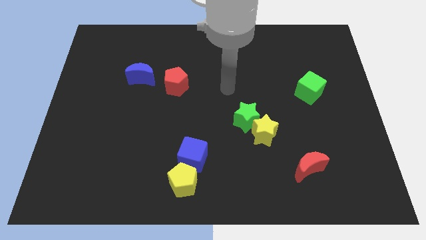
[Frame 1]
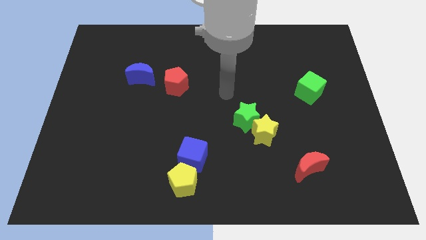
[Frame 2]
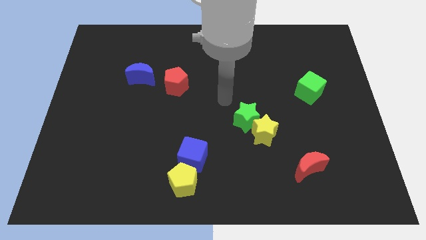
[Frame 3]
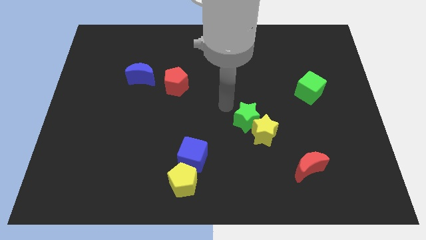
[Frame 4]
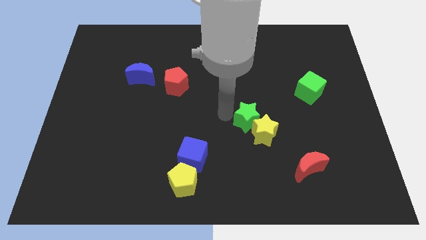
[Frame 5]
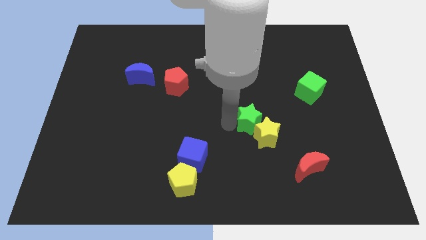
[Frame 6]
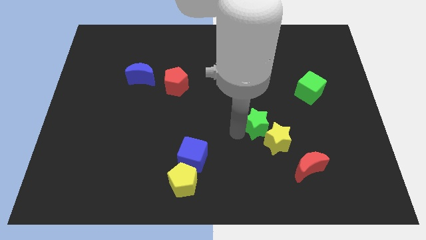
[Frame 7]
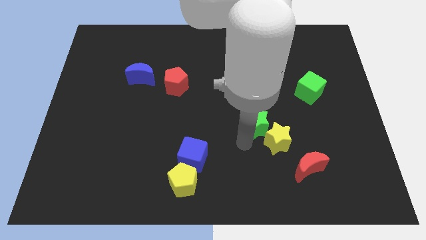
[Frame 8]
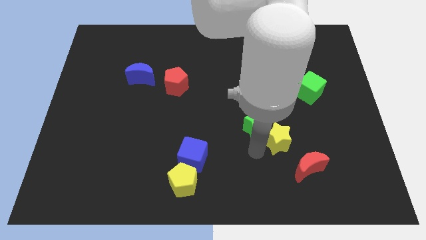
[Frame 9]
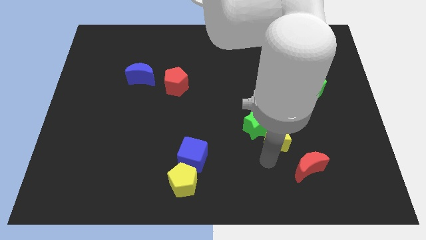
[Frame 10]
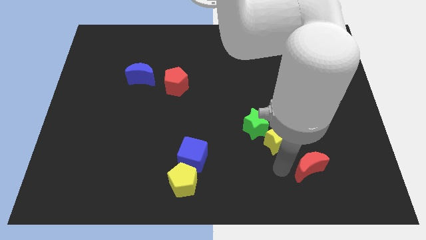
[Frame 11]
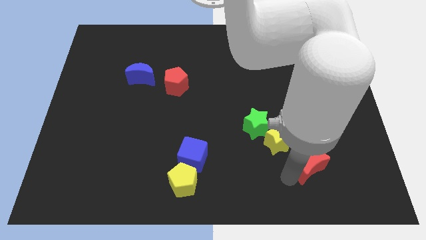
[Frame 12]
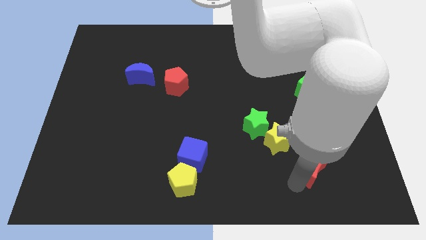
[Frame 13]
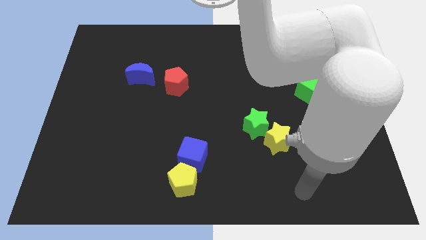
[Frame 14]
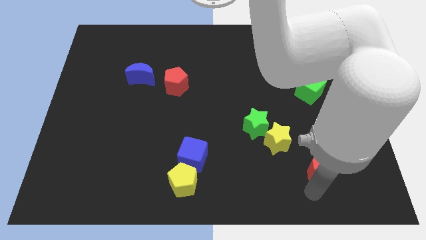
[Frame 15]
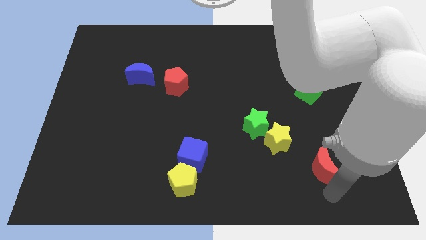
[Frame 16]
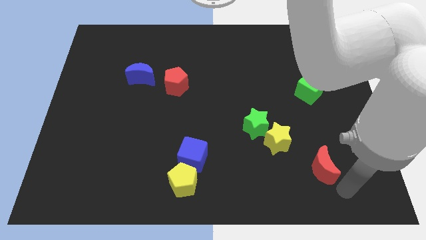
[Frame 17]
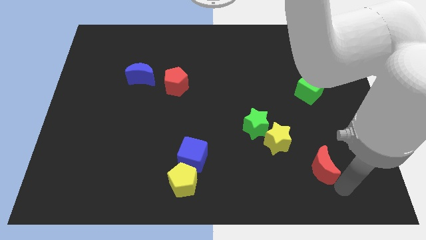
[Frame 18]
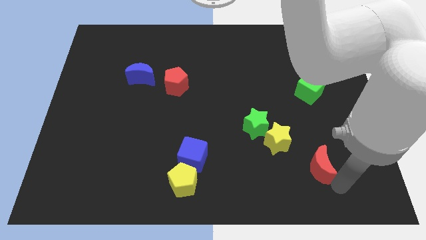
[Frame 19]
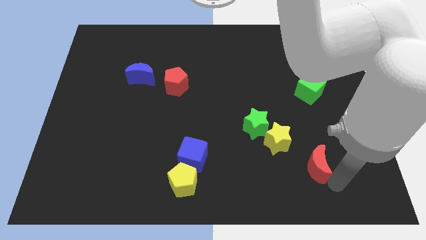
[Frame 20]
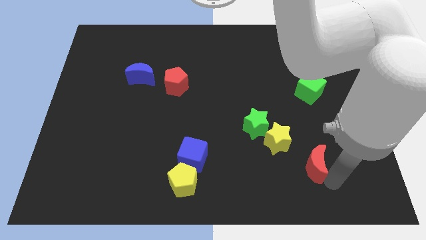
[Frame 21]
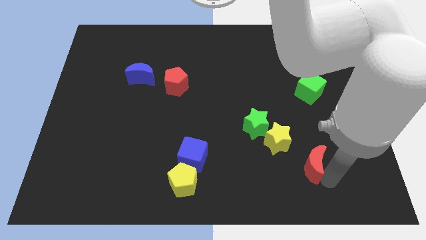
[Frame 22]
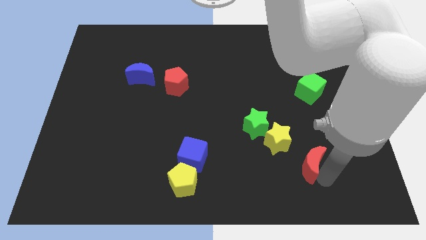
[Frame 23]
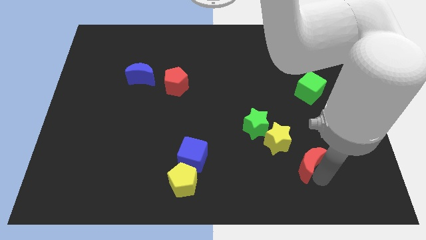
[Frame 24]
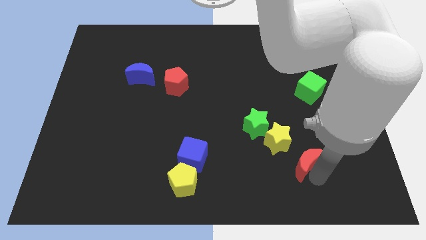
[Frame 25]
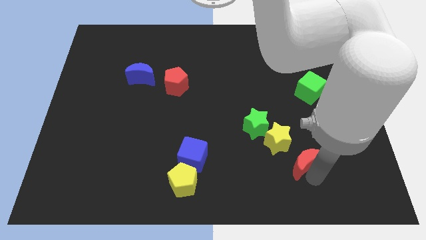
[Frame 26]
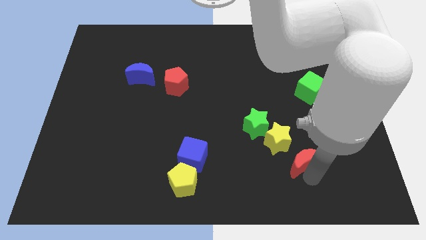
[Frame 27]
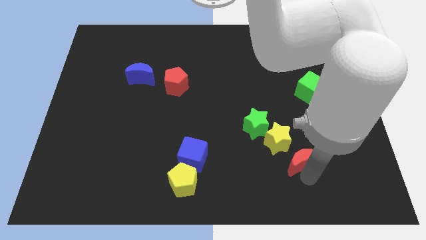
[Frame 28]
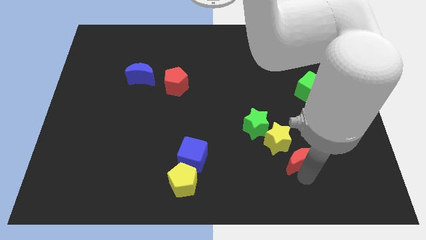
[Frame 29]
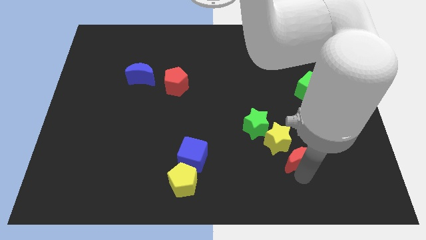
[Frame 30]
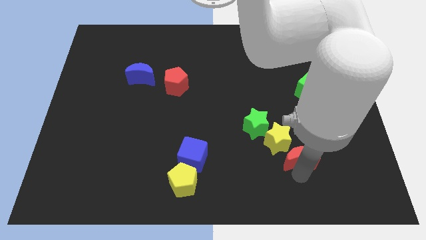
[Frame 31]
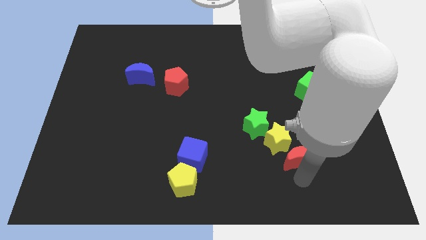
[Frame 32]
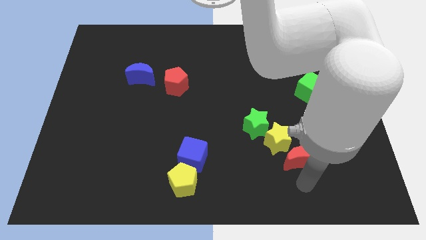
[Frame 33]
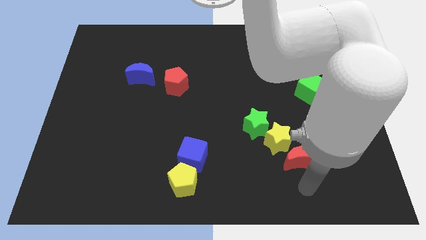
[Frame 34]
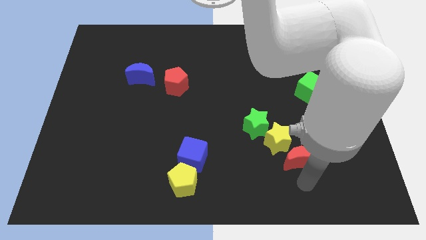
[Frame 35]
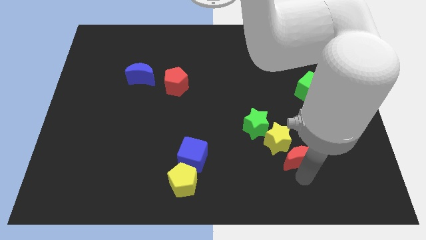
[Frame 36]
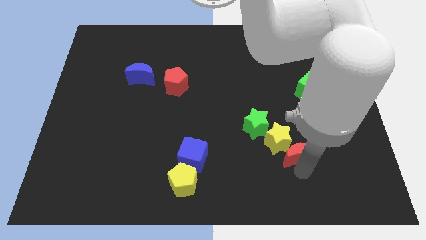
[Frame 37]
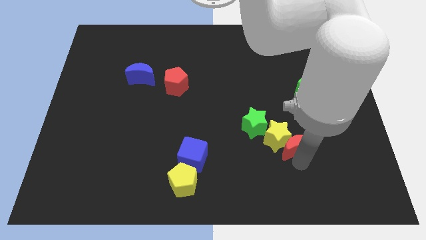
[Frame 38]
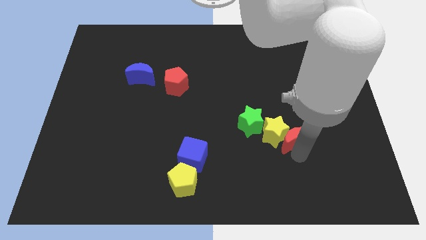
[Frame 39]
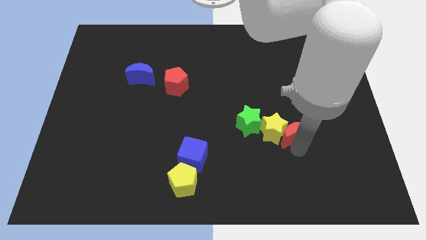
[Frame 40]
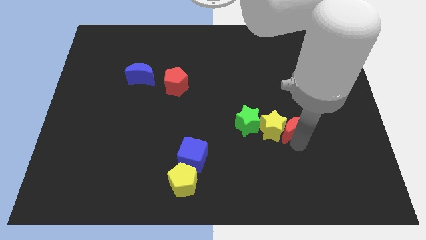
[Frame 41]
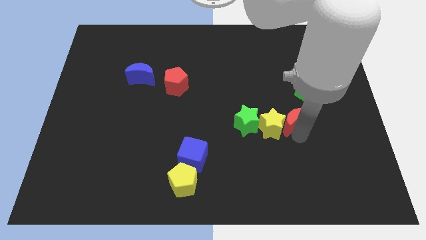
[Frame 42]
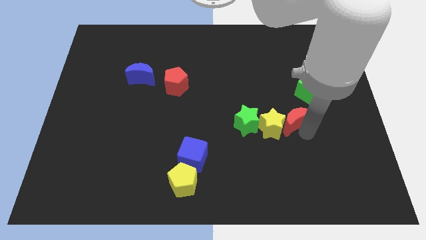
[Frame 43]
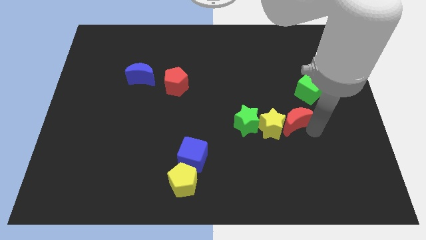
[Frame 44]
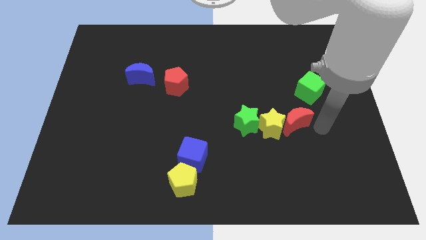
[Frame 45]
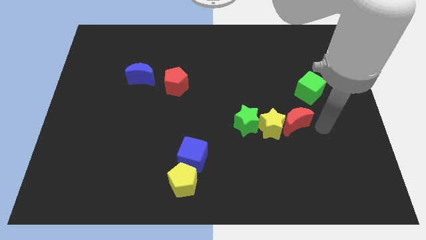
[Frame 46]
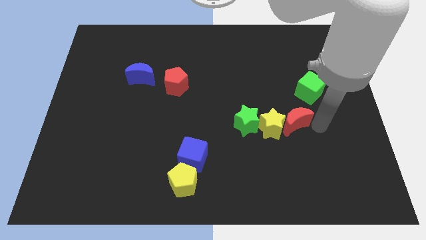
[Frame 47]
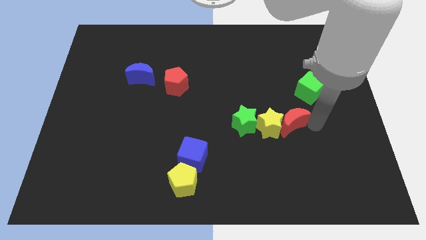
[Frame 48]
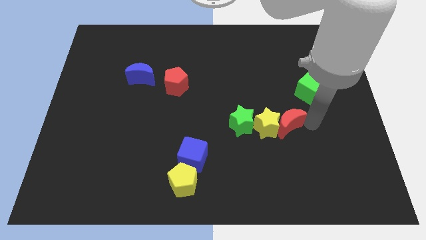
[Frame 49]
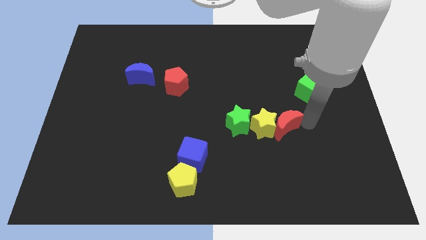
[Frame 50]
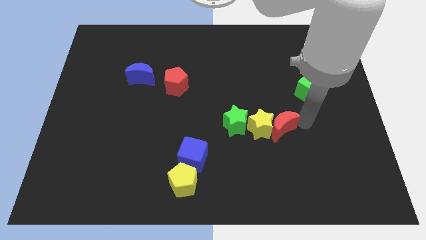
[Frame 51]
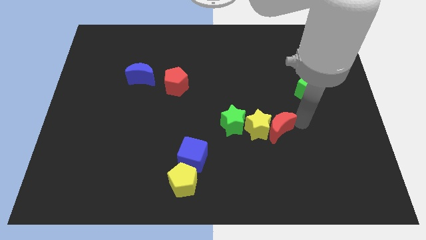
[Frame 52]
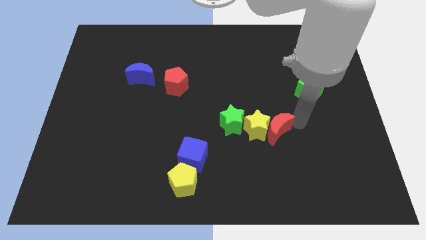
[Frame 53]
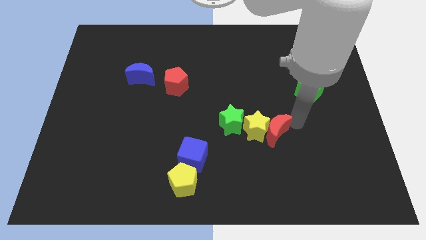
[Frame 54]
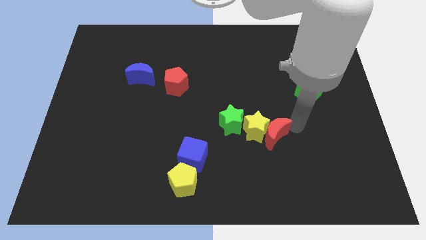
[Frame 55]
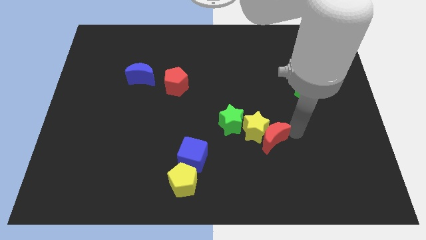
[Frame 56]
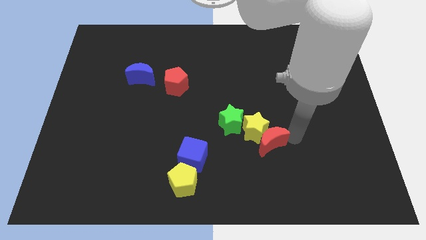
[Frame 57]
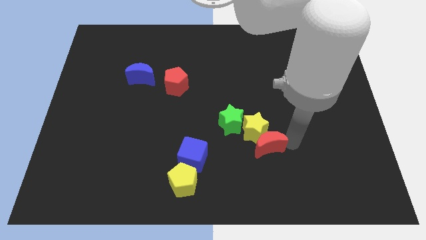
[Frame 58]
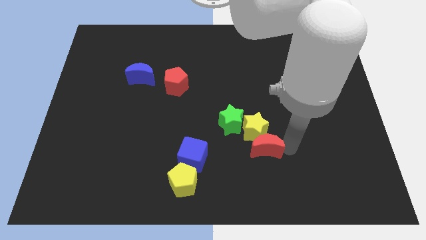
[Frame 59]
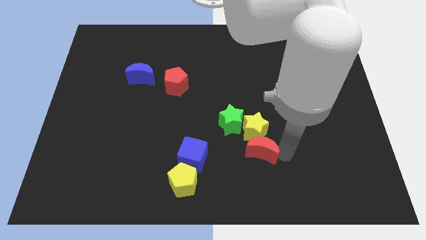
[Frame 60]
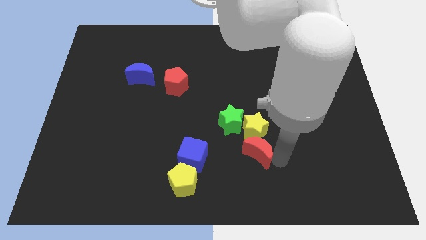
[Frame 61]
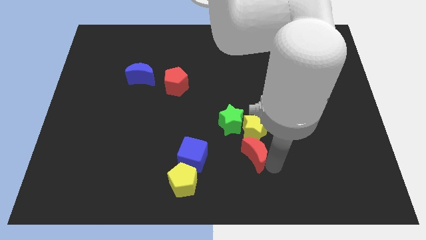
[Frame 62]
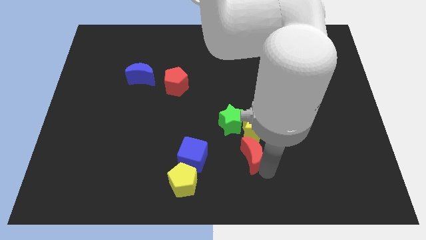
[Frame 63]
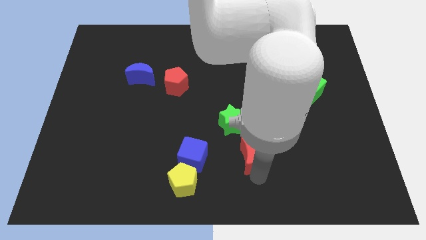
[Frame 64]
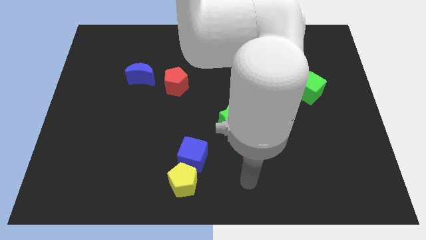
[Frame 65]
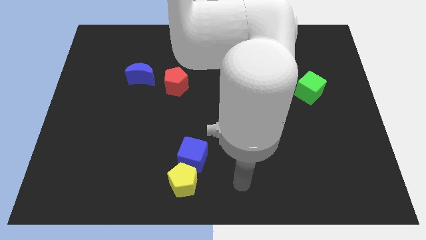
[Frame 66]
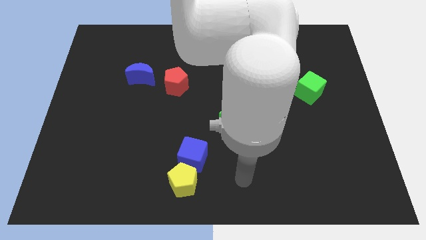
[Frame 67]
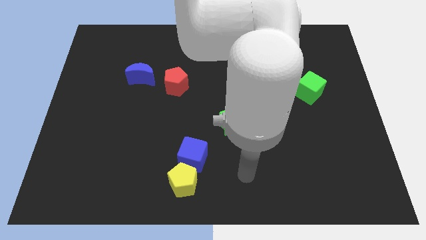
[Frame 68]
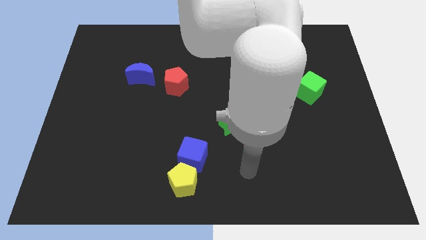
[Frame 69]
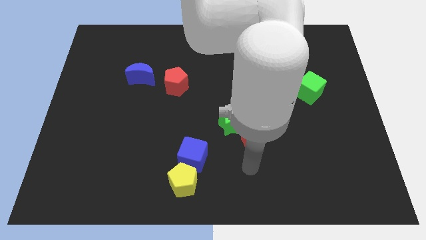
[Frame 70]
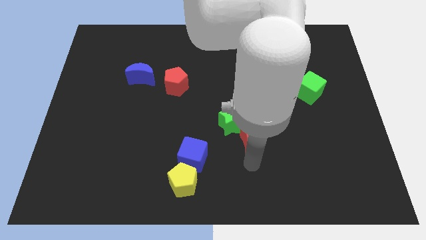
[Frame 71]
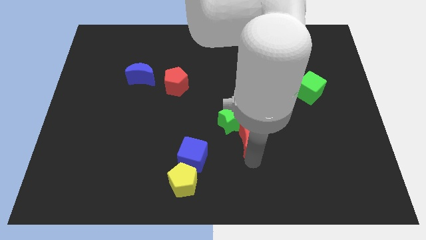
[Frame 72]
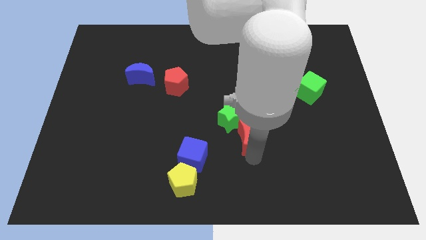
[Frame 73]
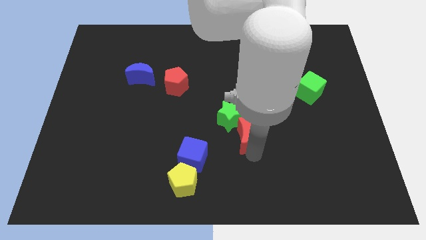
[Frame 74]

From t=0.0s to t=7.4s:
move the red moon next to the green star

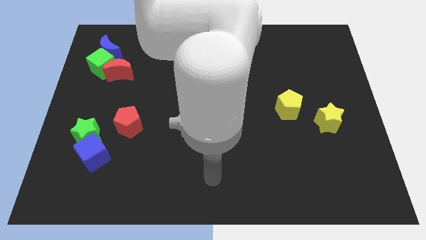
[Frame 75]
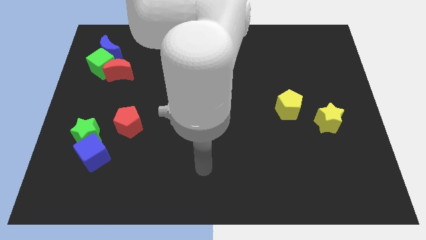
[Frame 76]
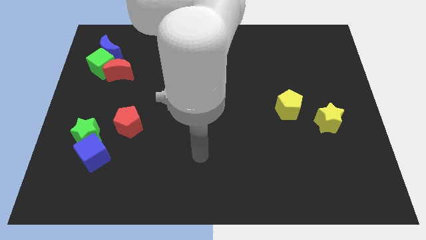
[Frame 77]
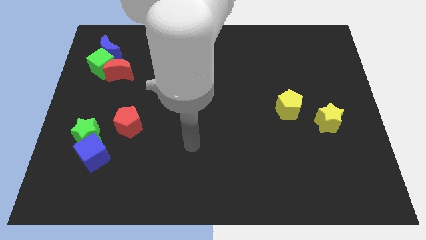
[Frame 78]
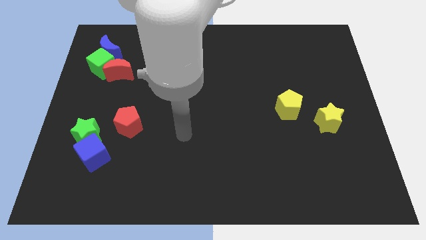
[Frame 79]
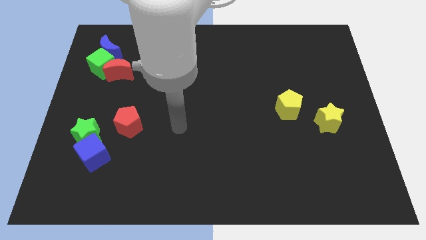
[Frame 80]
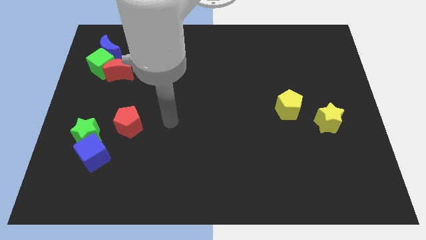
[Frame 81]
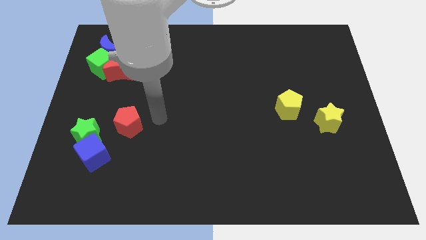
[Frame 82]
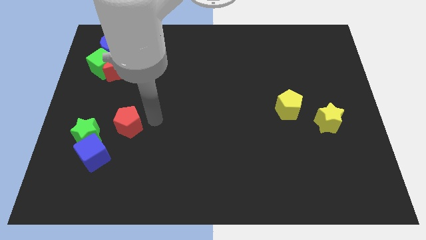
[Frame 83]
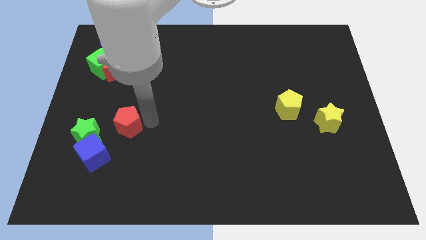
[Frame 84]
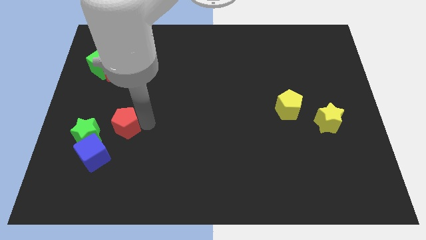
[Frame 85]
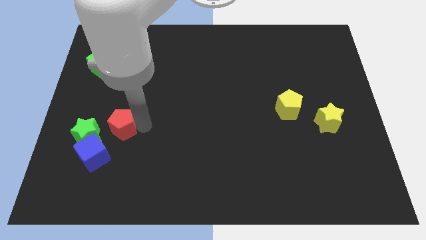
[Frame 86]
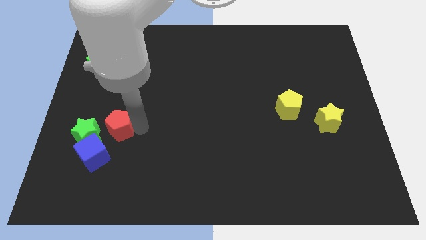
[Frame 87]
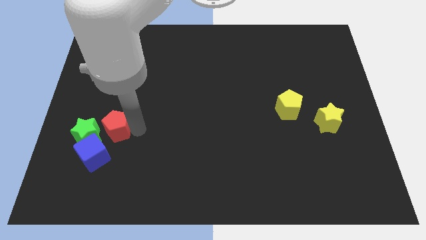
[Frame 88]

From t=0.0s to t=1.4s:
move the red pentagon close to the green star
